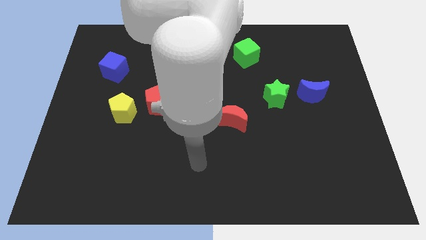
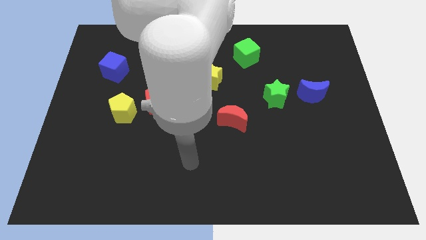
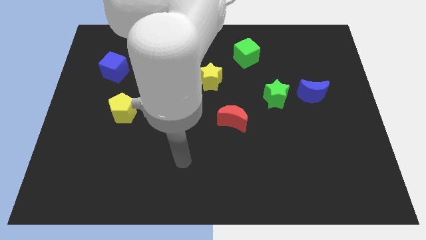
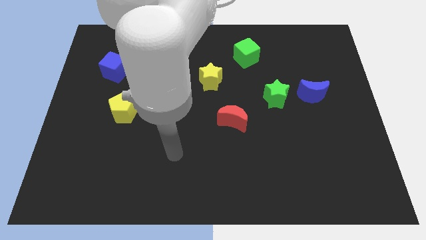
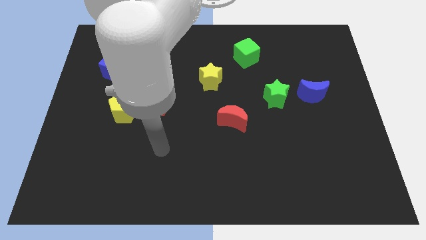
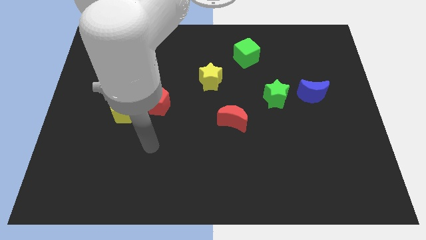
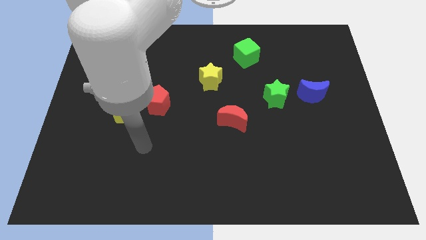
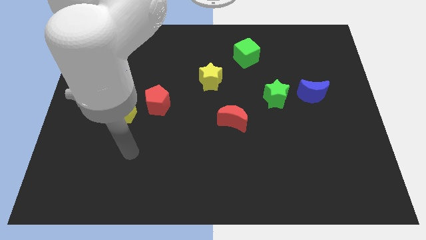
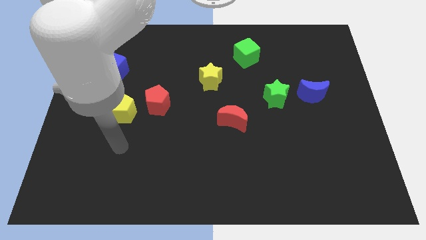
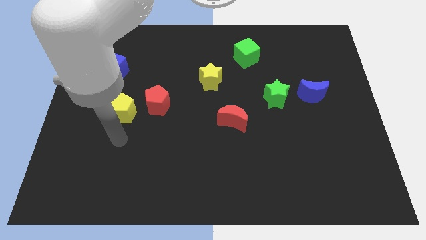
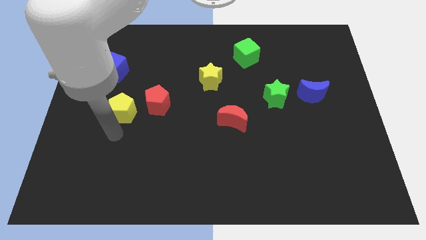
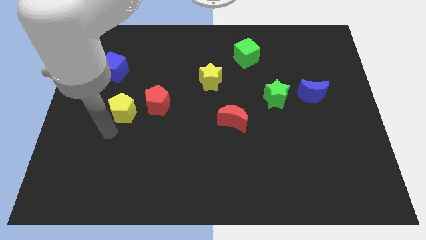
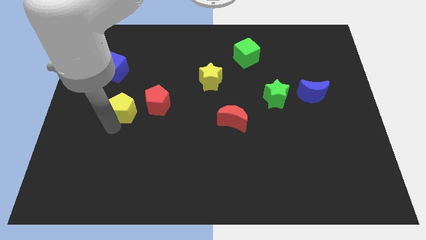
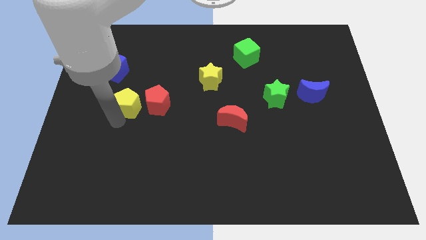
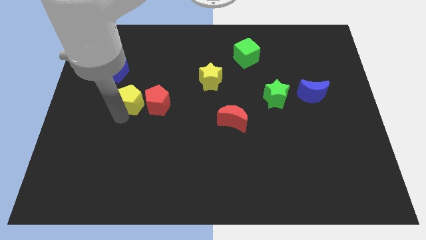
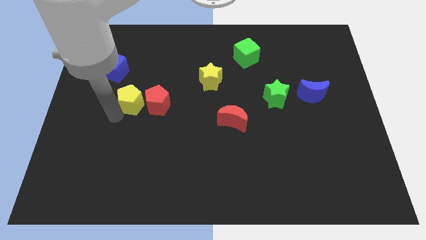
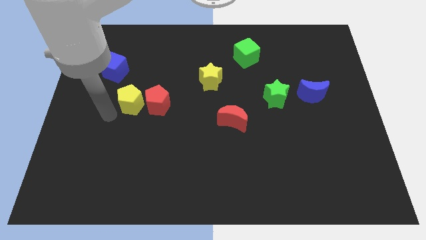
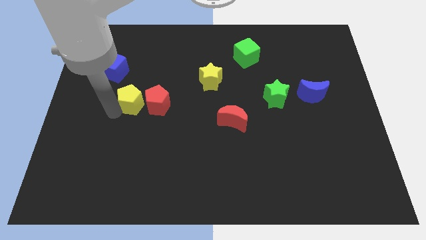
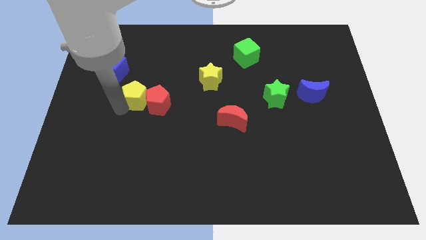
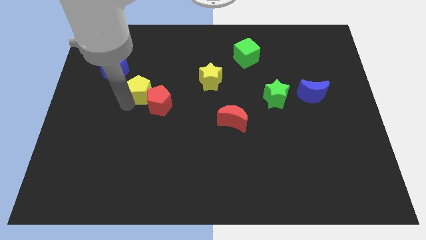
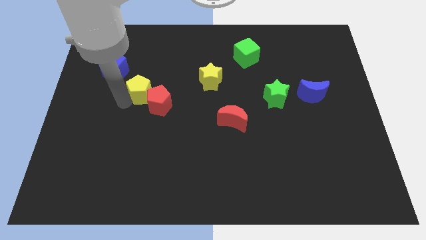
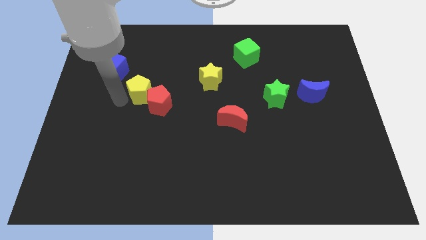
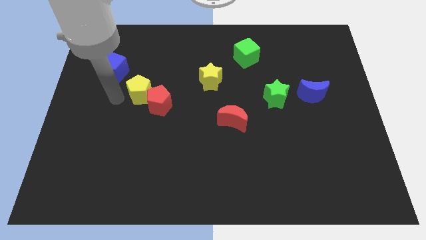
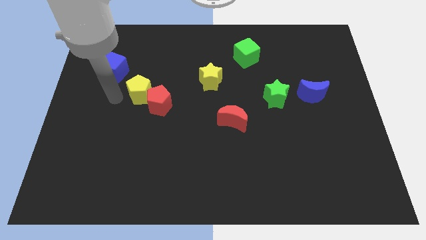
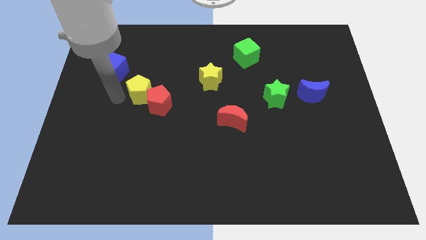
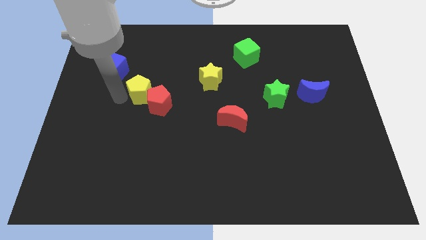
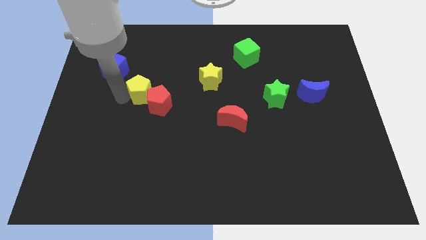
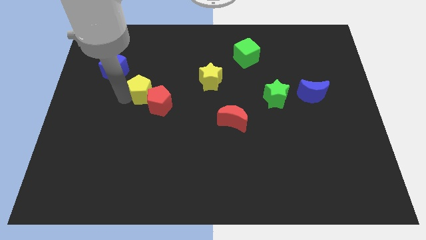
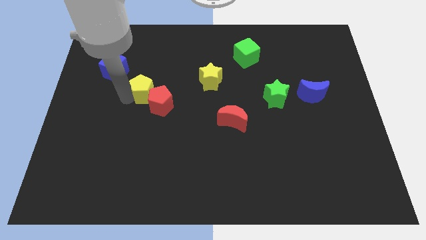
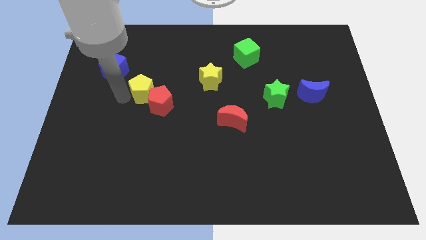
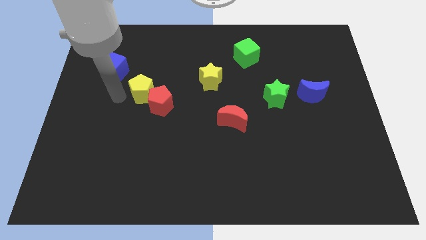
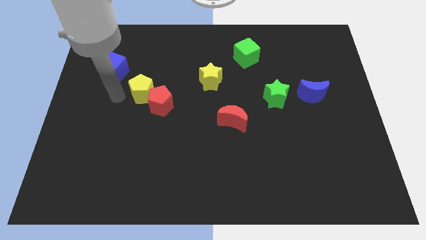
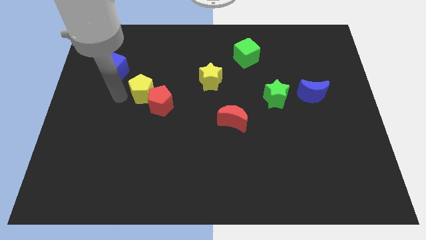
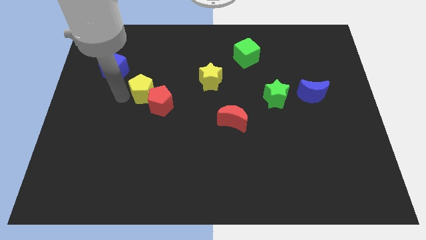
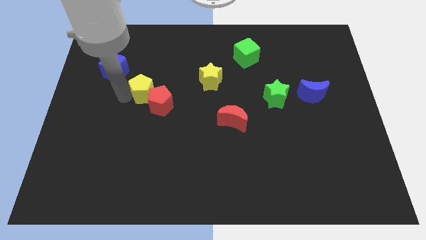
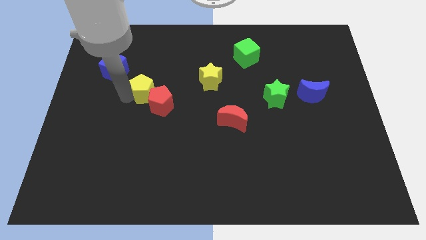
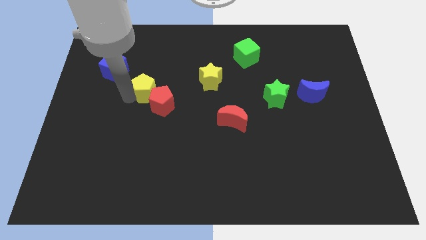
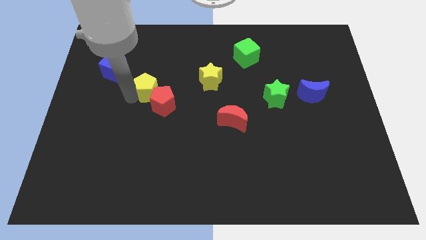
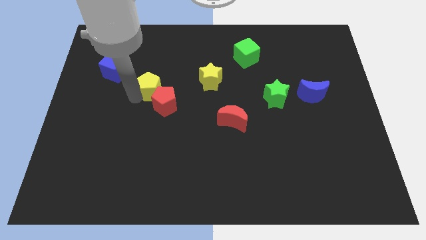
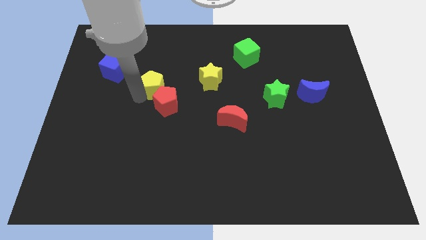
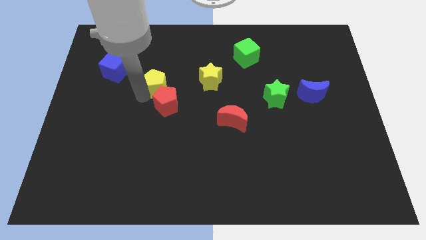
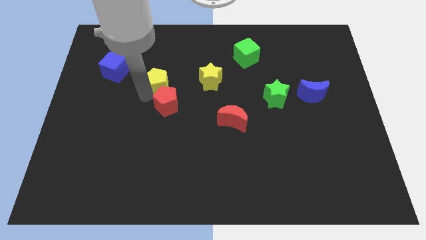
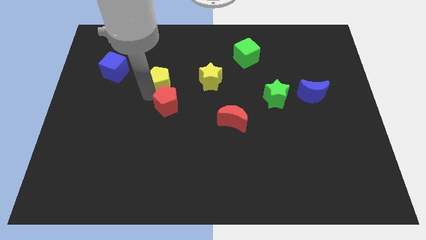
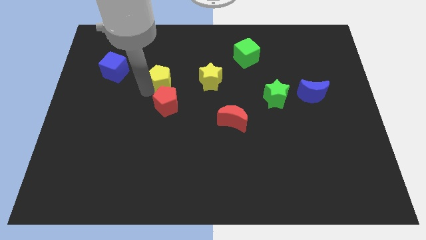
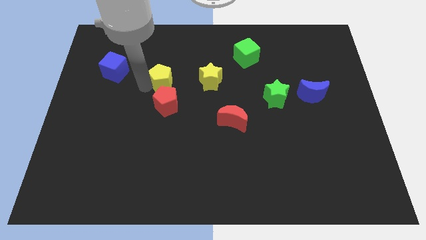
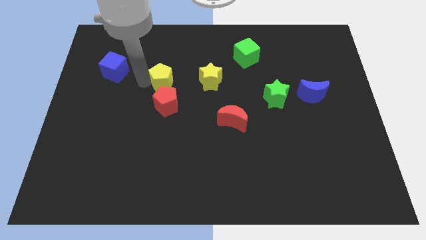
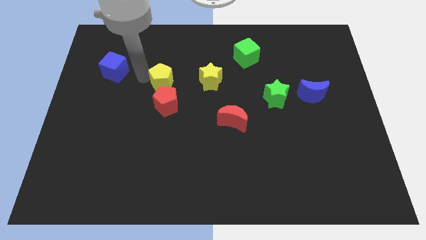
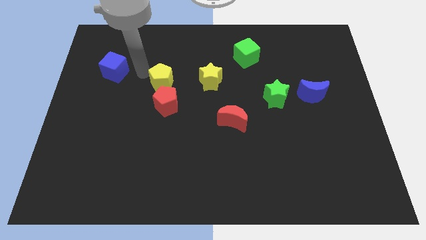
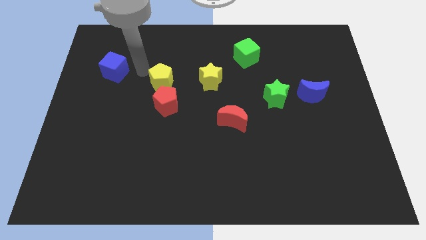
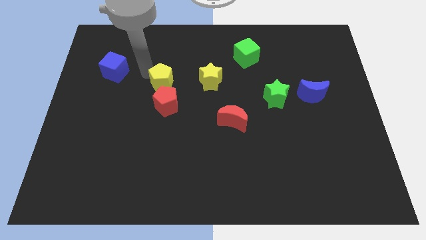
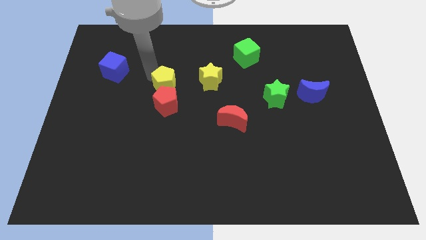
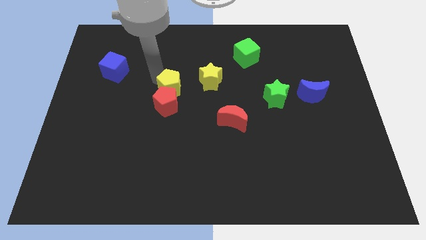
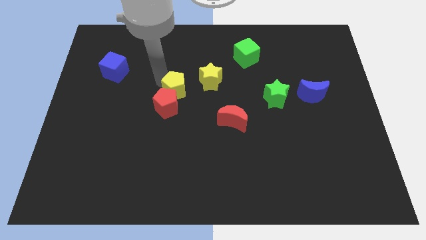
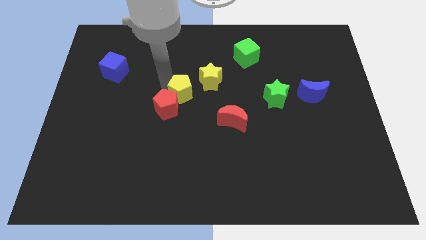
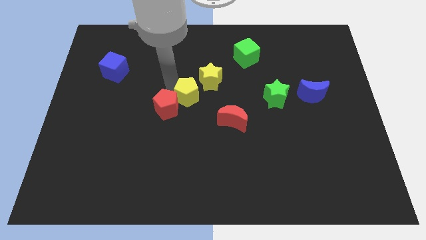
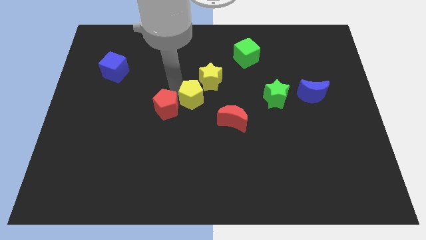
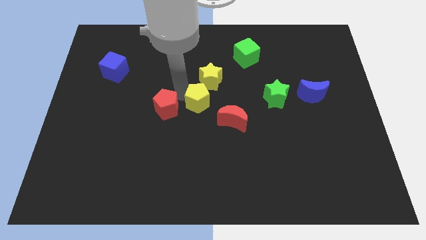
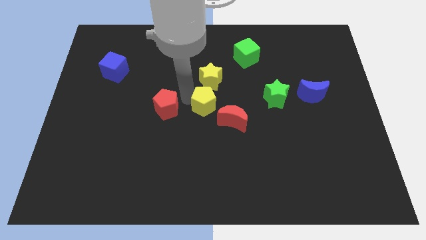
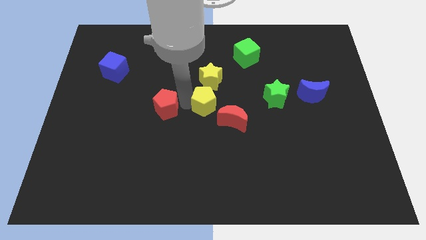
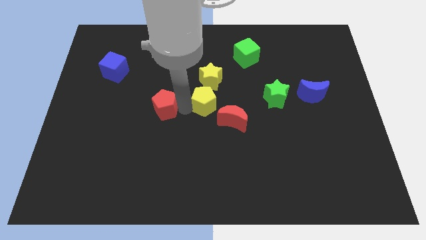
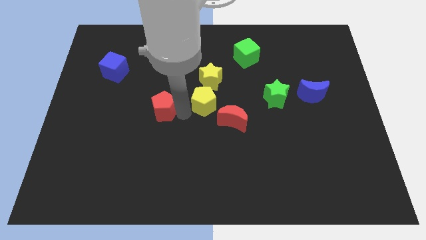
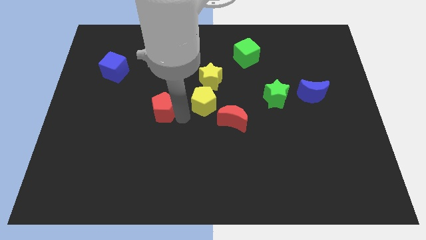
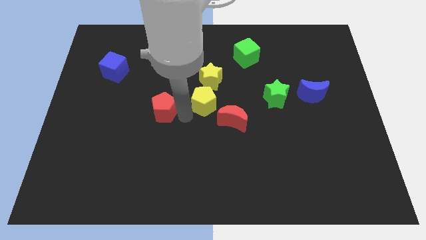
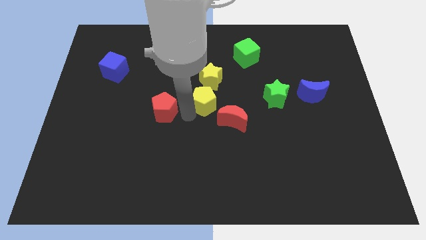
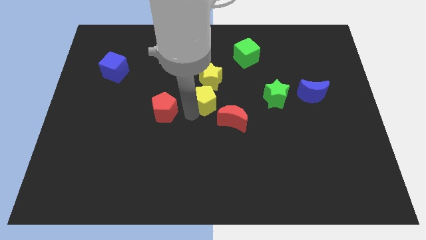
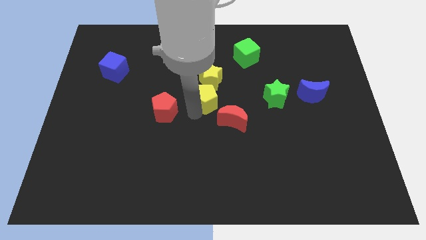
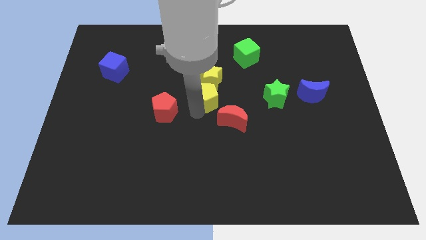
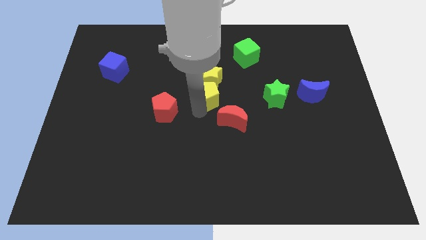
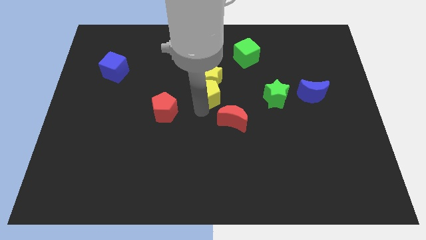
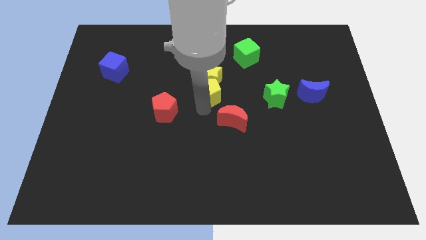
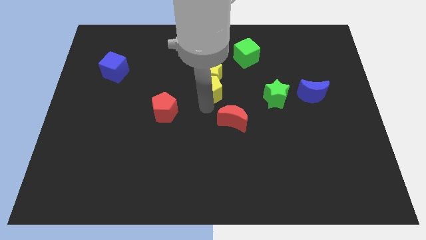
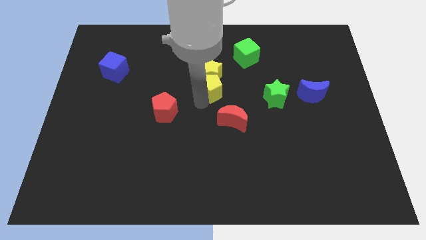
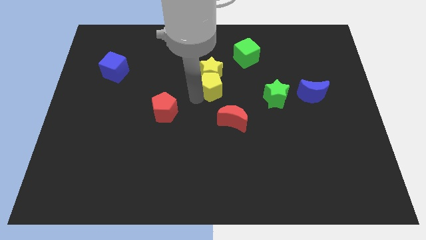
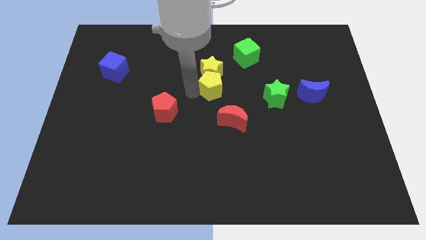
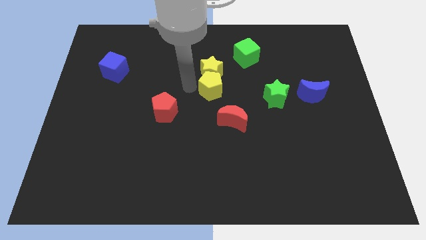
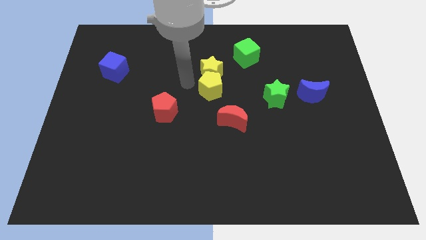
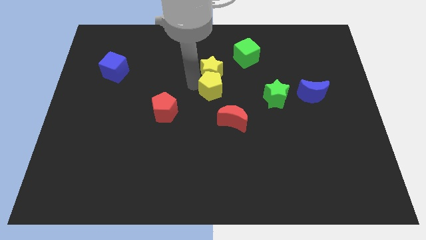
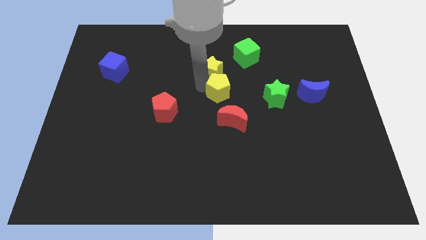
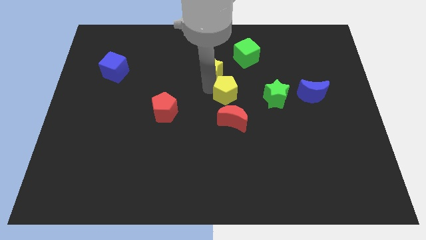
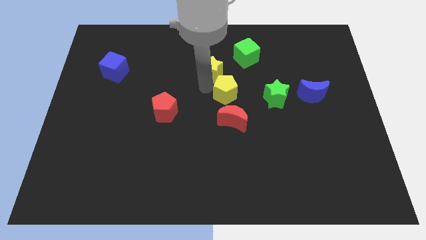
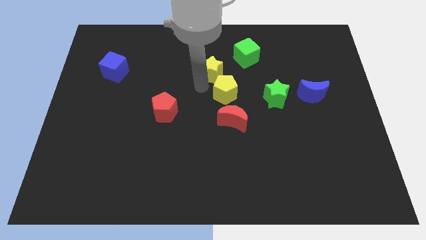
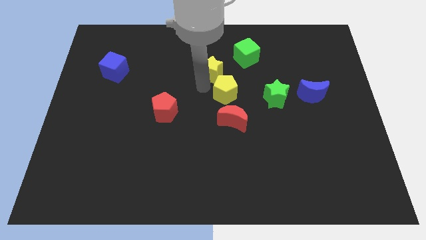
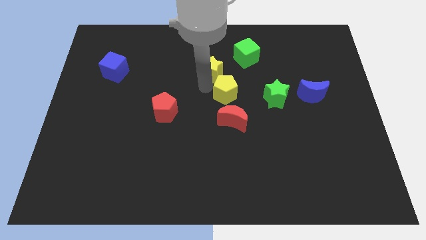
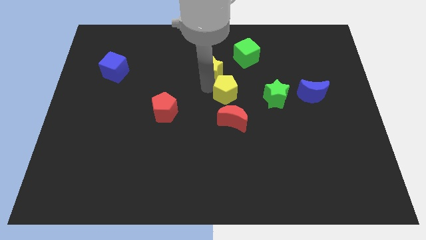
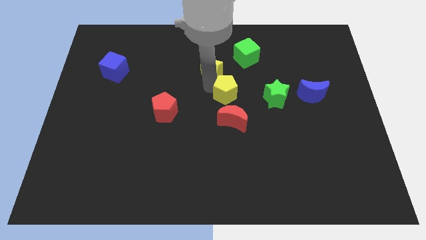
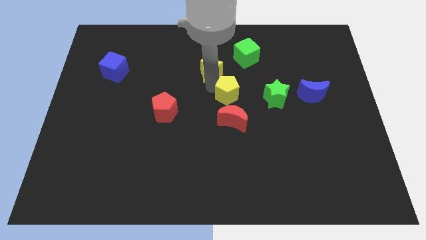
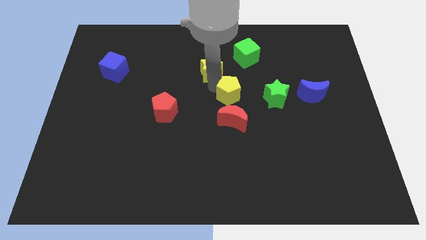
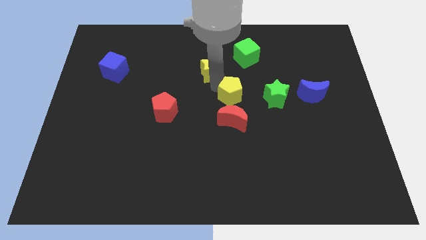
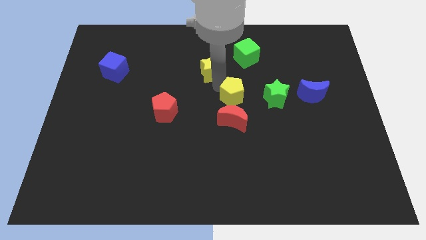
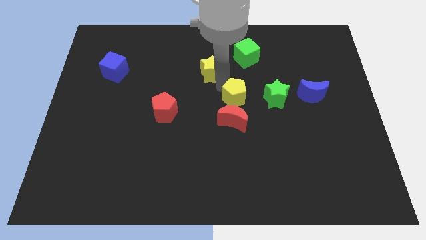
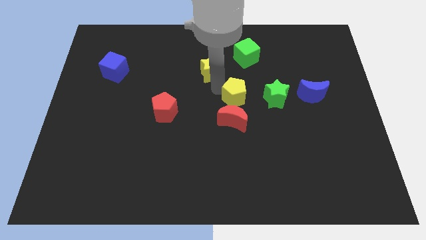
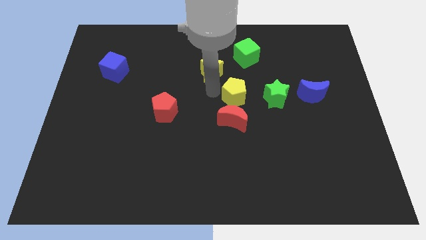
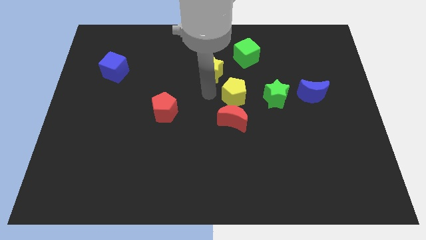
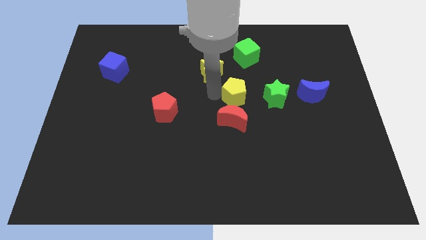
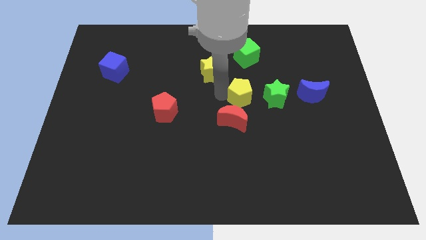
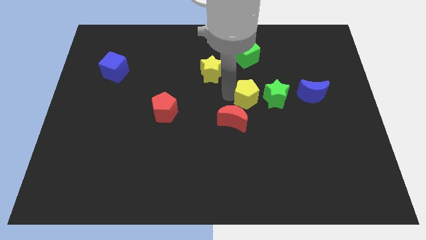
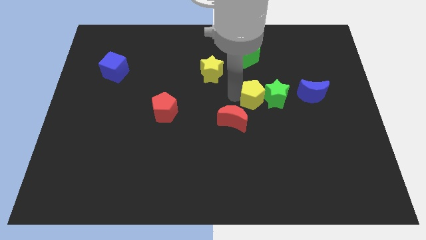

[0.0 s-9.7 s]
move the yellow pentagon close to the green star
